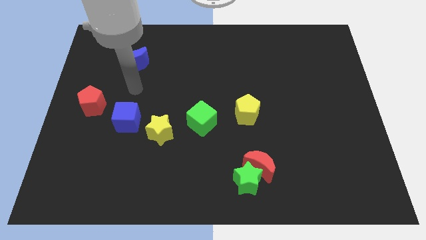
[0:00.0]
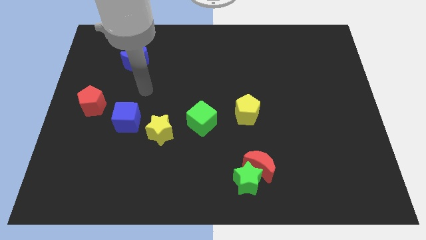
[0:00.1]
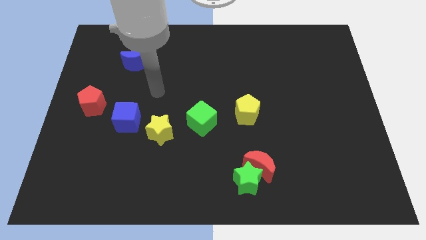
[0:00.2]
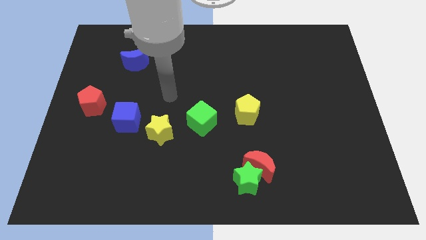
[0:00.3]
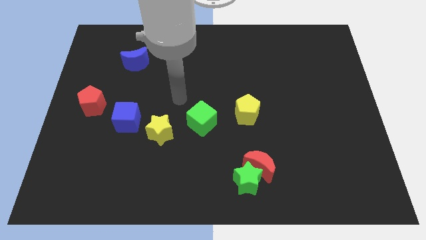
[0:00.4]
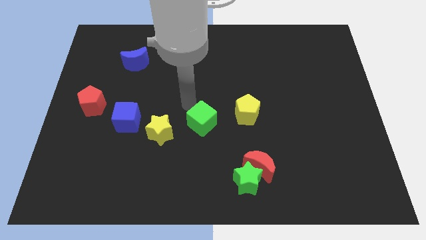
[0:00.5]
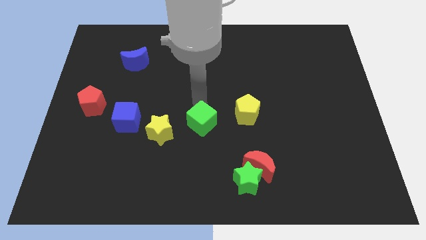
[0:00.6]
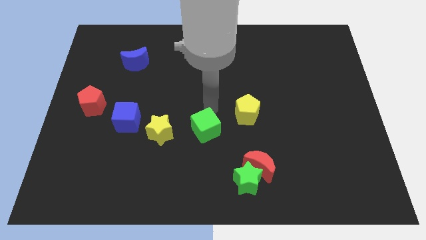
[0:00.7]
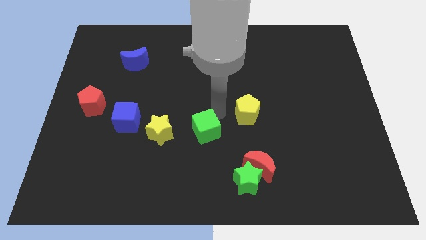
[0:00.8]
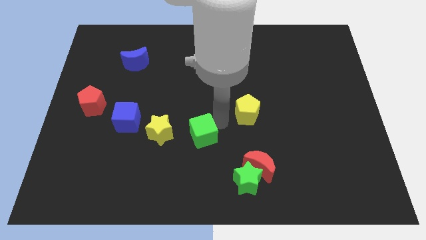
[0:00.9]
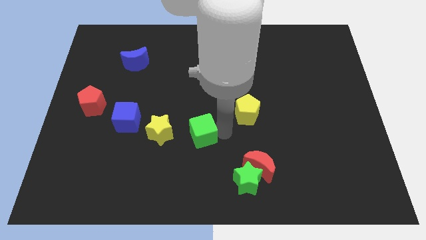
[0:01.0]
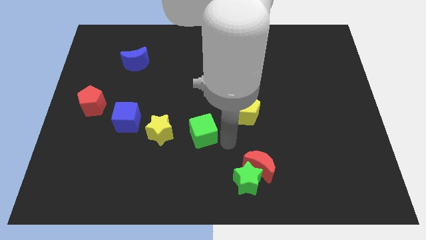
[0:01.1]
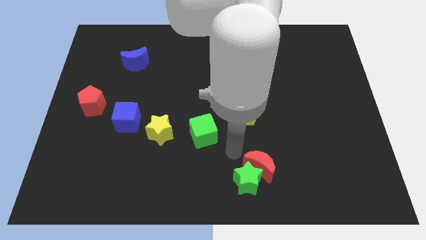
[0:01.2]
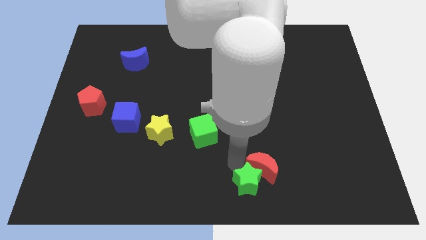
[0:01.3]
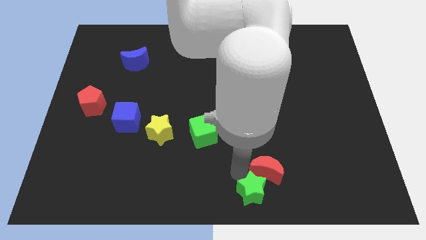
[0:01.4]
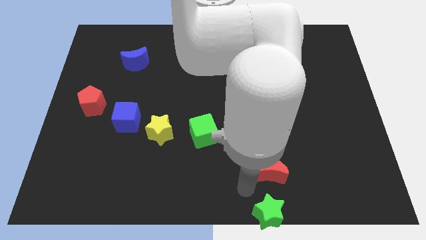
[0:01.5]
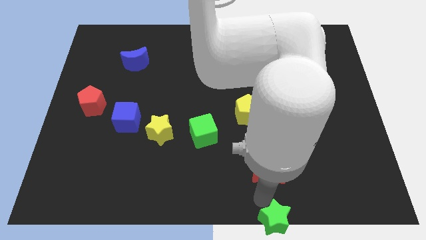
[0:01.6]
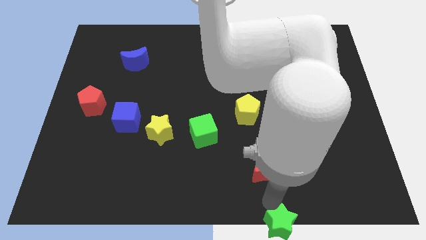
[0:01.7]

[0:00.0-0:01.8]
move the red moon away from the green star

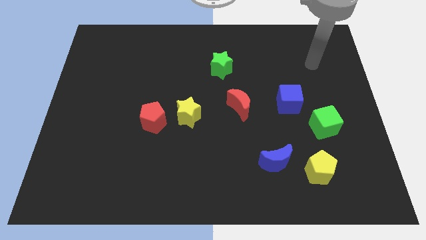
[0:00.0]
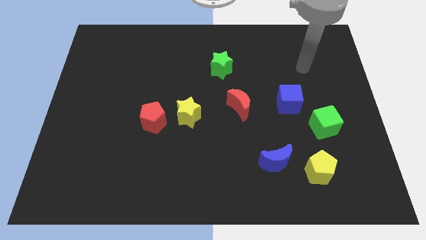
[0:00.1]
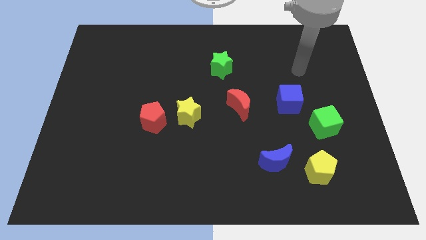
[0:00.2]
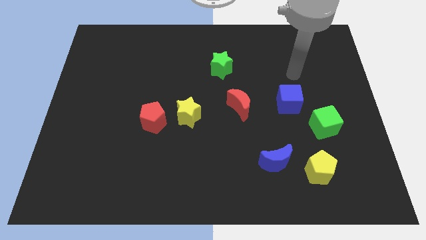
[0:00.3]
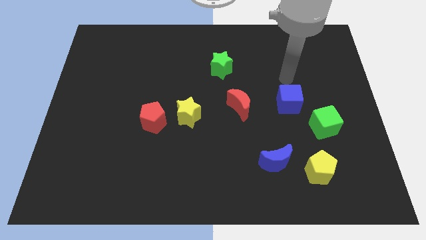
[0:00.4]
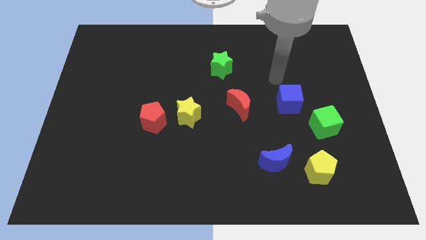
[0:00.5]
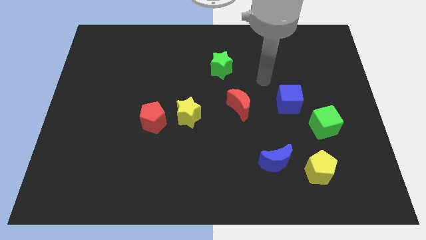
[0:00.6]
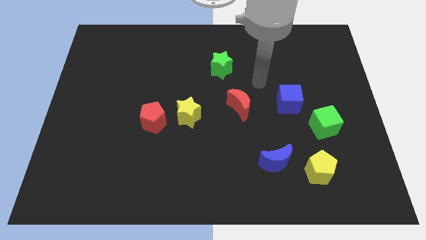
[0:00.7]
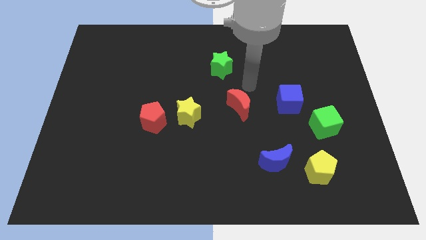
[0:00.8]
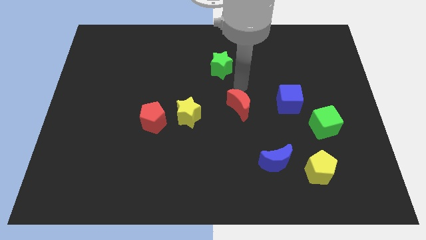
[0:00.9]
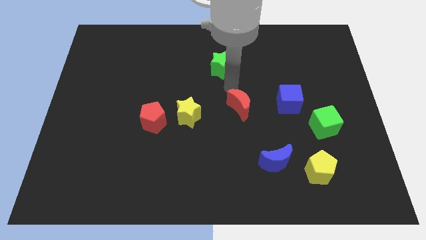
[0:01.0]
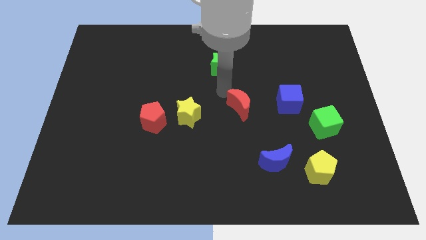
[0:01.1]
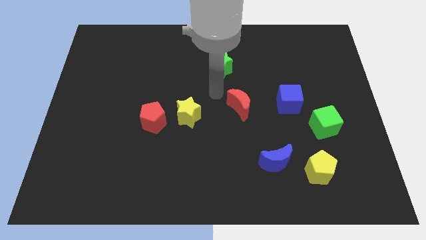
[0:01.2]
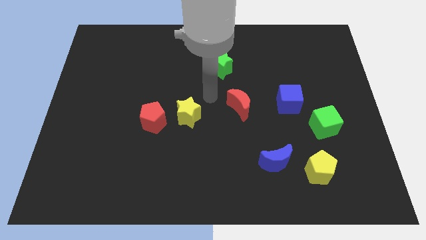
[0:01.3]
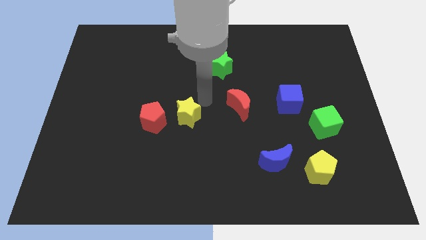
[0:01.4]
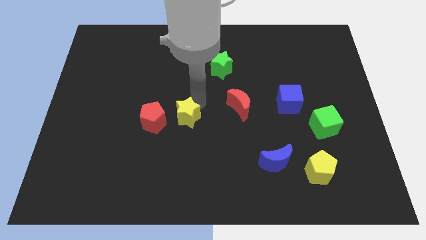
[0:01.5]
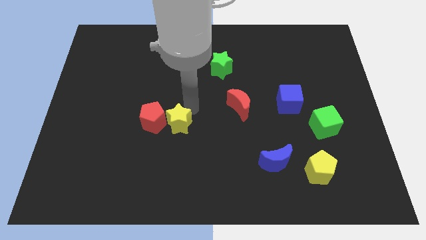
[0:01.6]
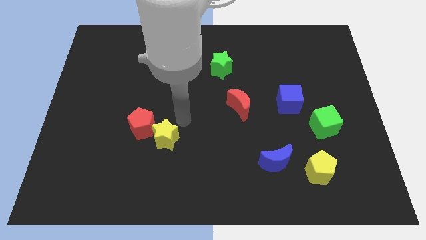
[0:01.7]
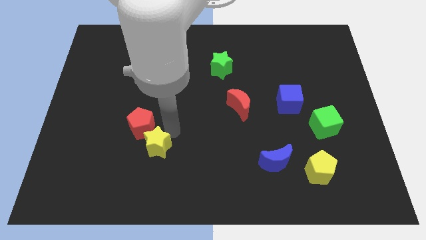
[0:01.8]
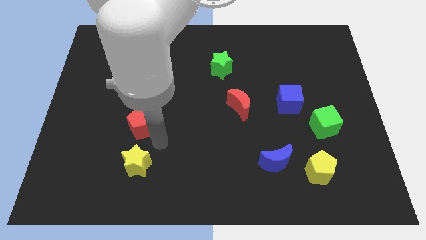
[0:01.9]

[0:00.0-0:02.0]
pull the red pentagon apart from the yellow star

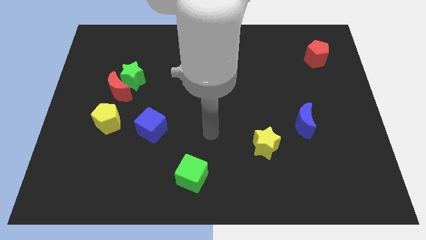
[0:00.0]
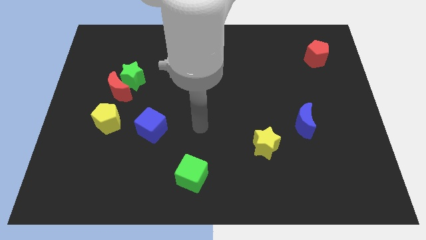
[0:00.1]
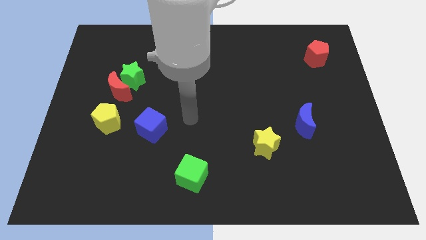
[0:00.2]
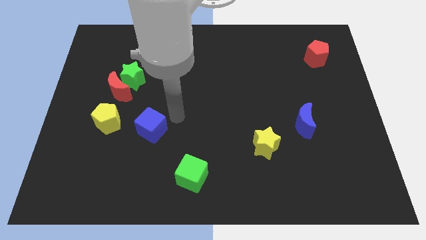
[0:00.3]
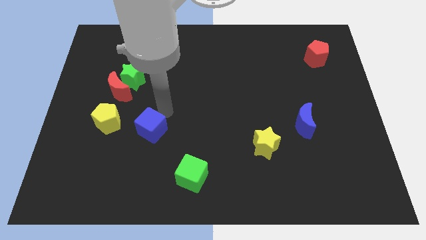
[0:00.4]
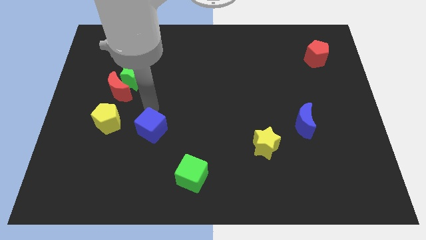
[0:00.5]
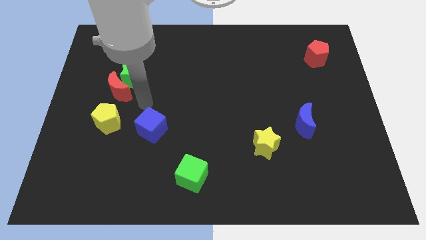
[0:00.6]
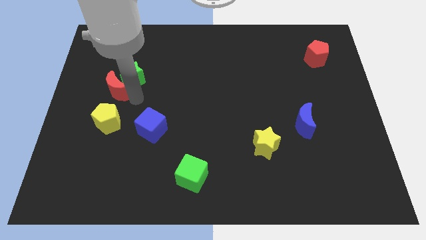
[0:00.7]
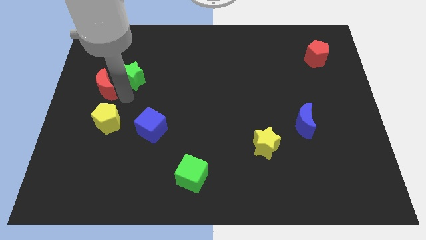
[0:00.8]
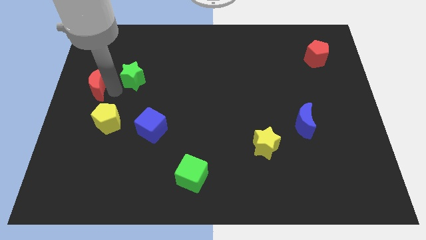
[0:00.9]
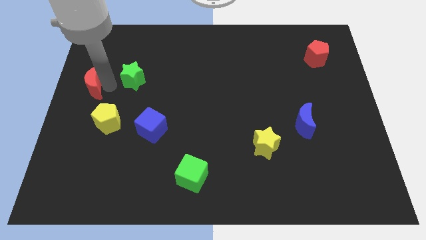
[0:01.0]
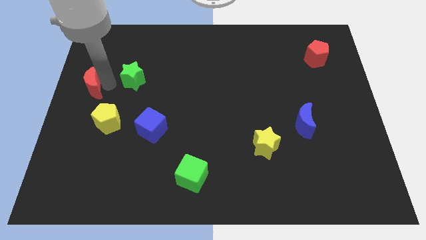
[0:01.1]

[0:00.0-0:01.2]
separate the green star from the red moon

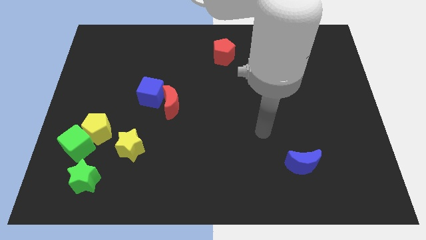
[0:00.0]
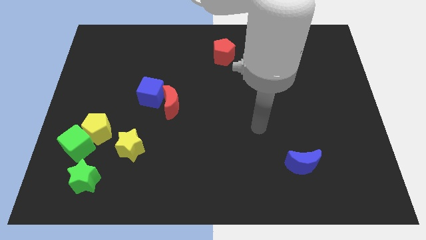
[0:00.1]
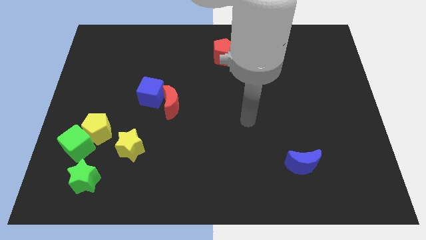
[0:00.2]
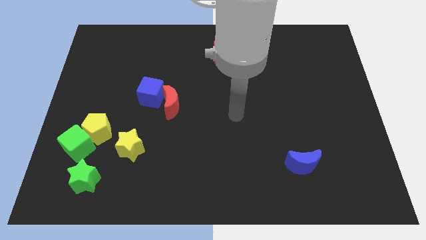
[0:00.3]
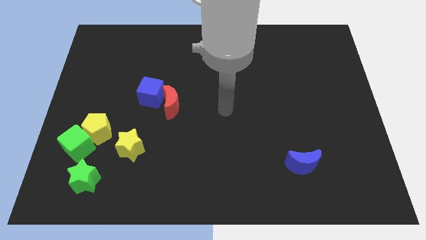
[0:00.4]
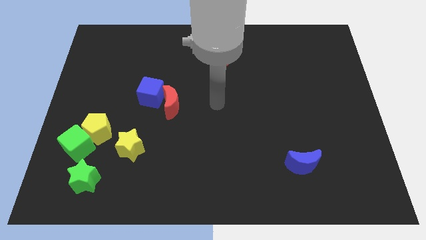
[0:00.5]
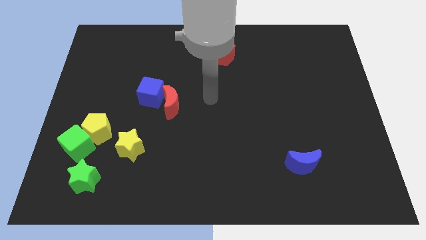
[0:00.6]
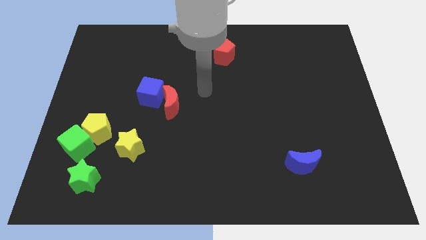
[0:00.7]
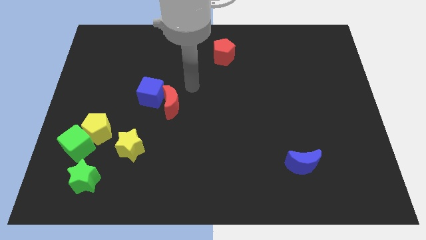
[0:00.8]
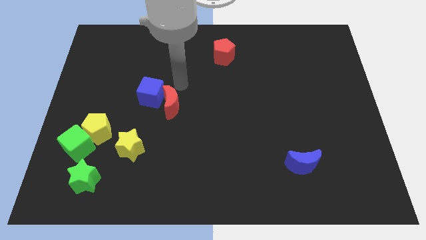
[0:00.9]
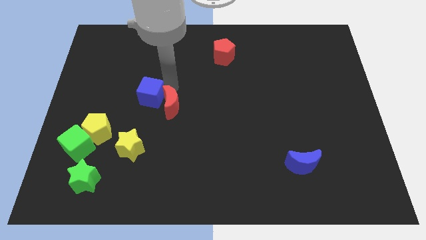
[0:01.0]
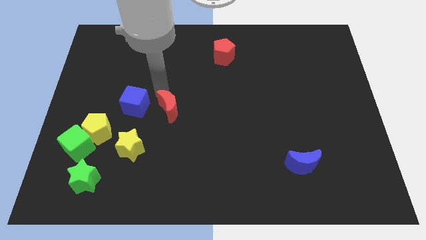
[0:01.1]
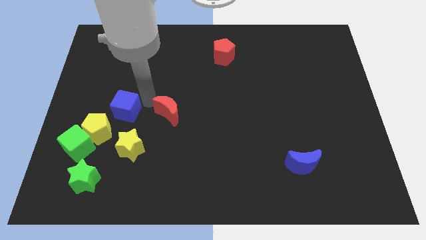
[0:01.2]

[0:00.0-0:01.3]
pull the red moon apart from the blue cube

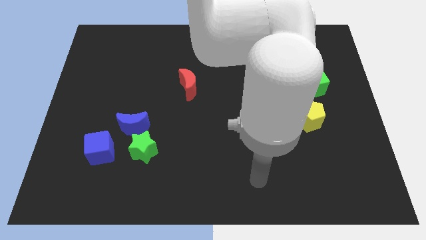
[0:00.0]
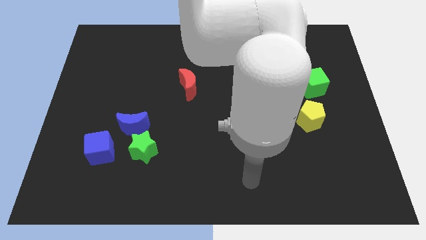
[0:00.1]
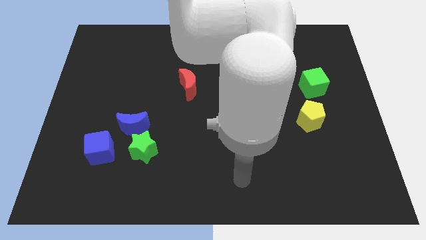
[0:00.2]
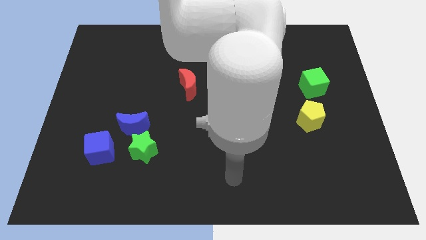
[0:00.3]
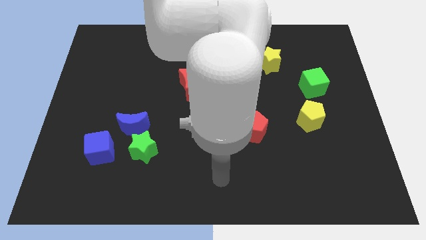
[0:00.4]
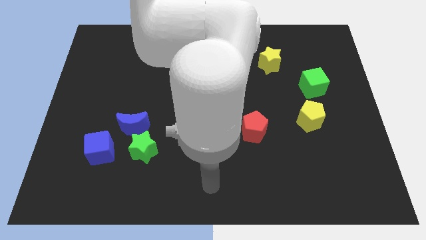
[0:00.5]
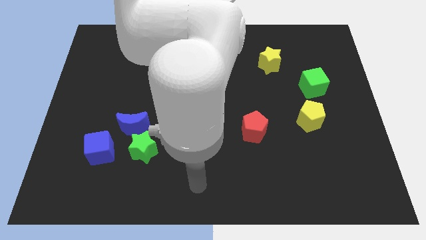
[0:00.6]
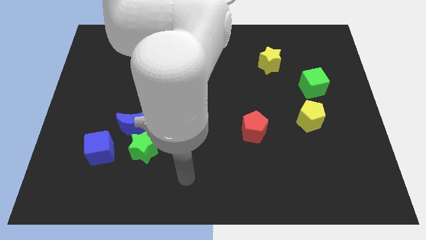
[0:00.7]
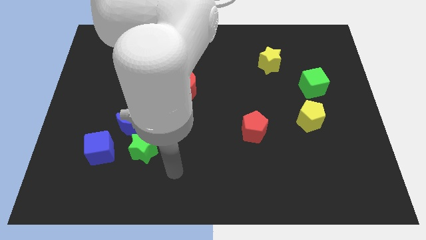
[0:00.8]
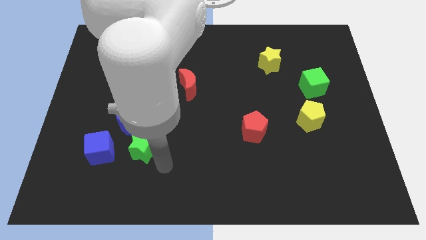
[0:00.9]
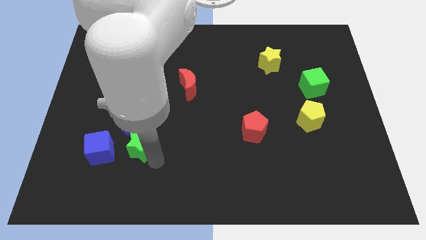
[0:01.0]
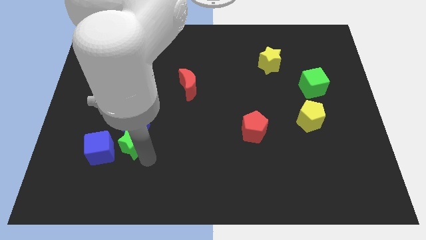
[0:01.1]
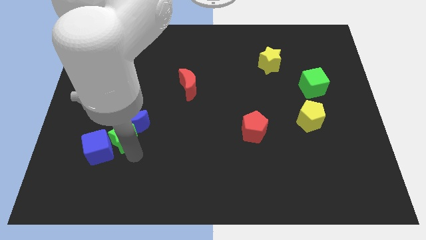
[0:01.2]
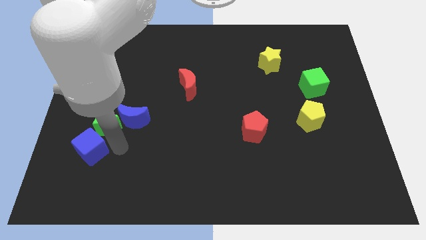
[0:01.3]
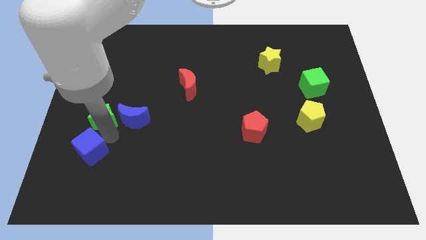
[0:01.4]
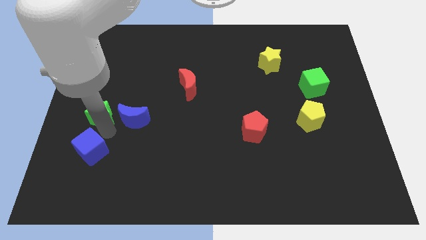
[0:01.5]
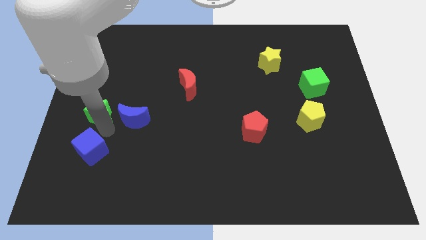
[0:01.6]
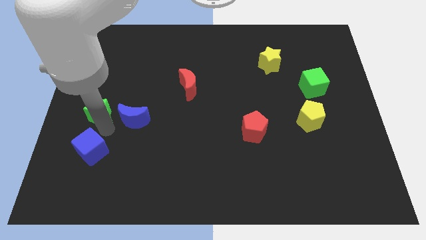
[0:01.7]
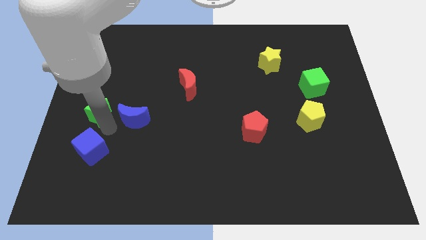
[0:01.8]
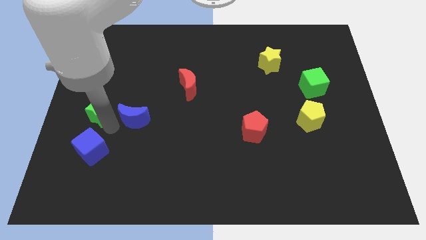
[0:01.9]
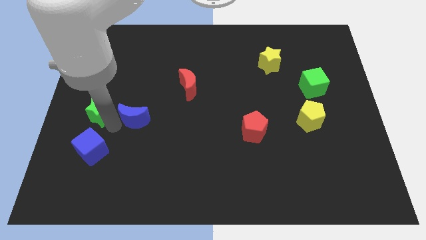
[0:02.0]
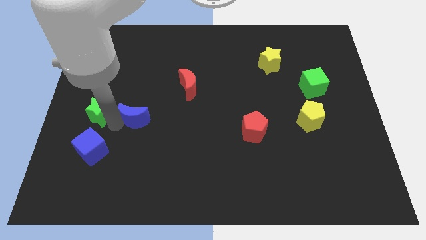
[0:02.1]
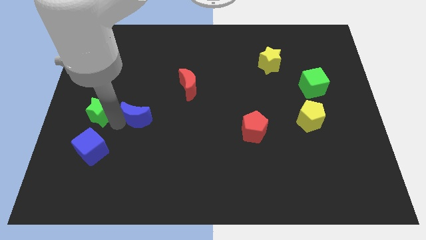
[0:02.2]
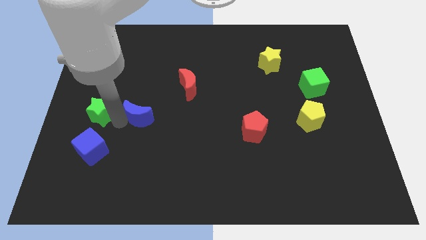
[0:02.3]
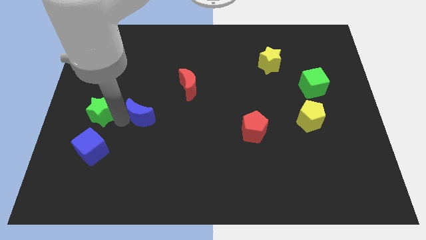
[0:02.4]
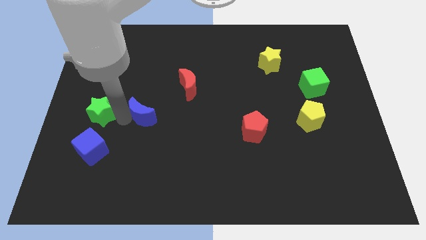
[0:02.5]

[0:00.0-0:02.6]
move the blue moon away from the green star and blue cube

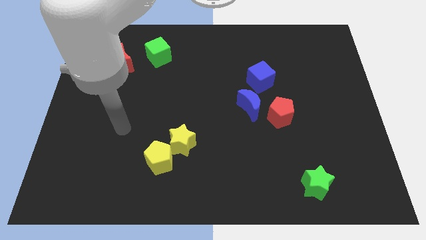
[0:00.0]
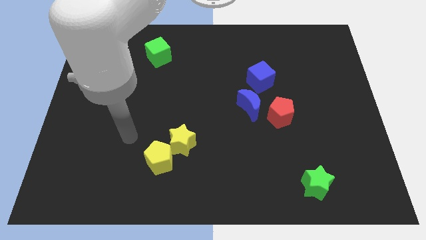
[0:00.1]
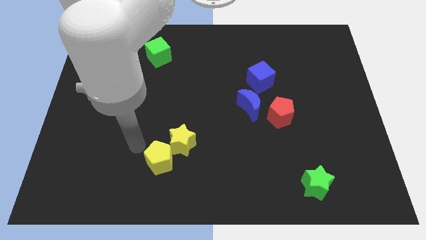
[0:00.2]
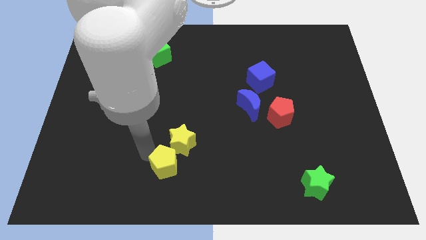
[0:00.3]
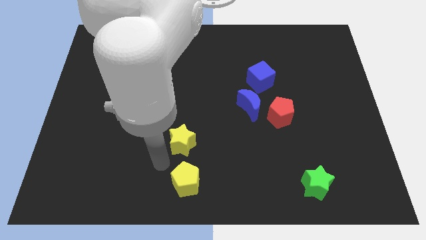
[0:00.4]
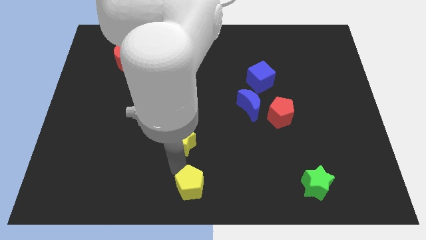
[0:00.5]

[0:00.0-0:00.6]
move the yellow star away from the yellow pentagon
